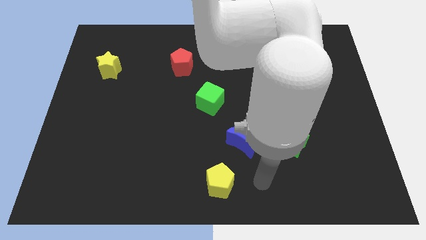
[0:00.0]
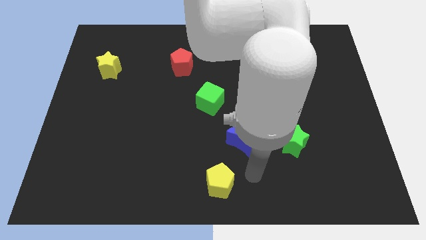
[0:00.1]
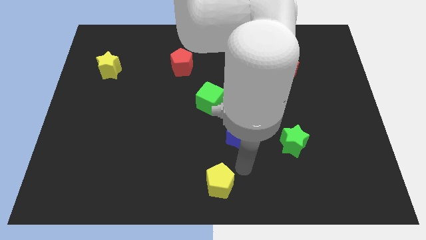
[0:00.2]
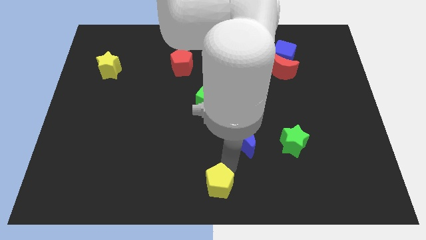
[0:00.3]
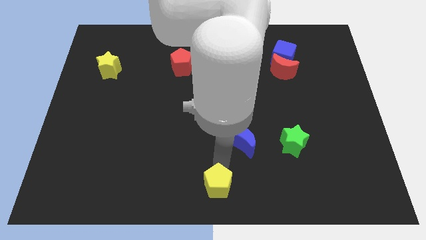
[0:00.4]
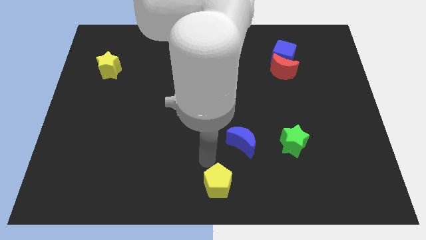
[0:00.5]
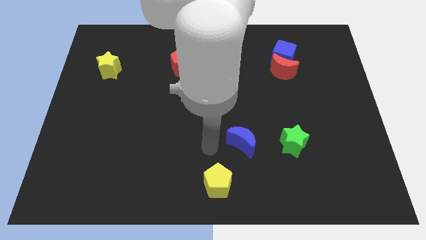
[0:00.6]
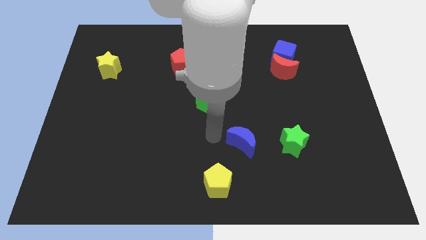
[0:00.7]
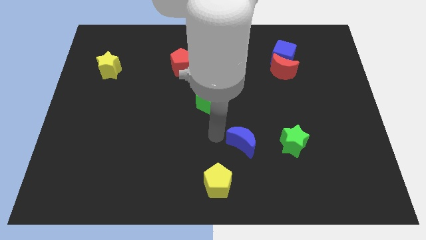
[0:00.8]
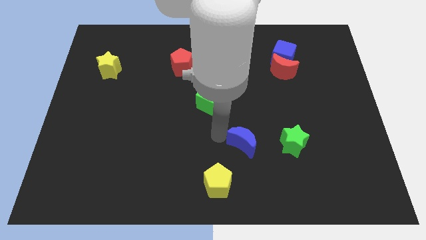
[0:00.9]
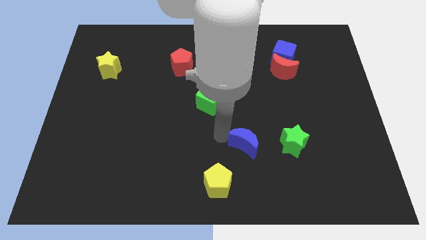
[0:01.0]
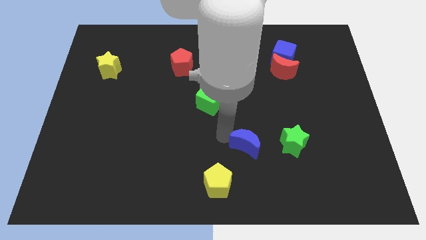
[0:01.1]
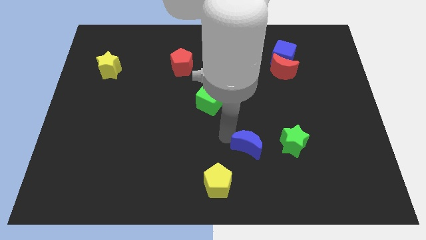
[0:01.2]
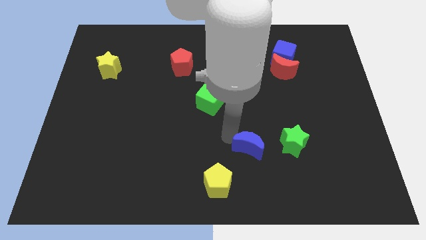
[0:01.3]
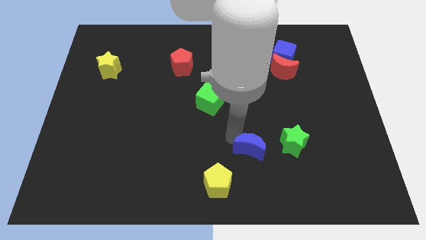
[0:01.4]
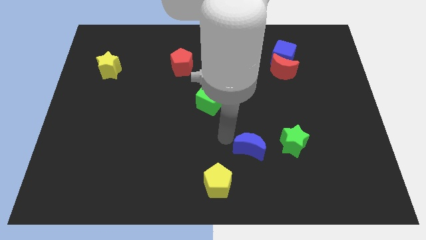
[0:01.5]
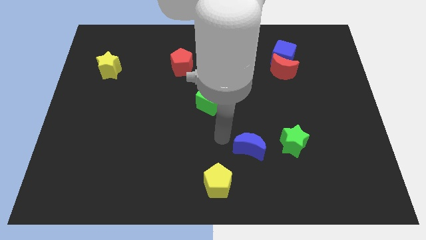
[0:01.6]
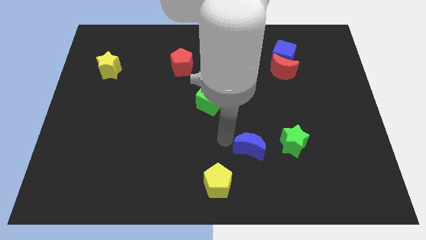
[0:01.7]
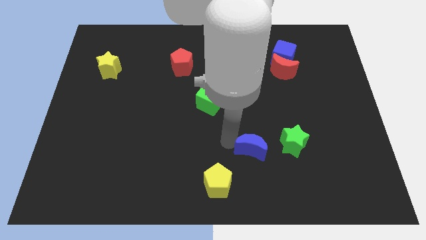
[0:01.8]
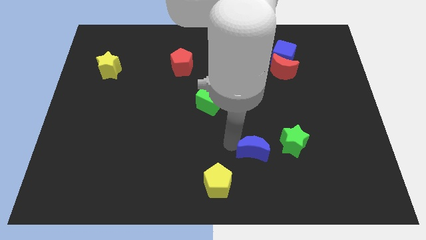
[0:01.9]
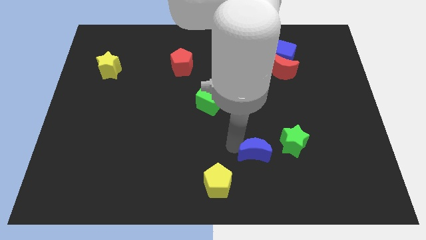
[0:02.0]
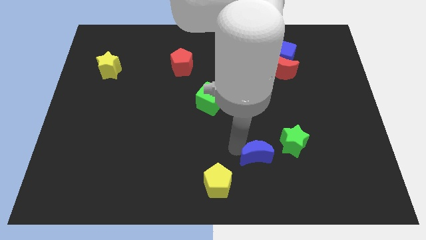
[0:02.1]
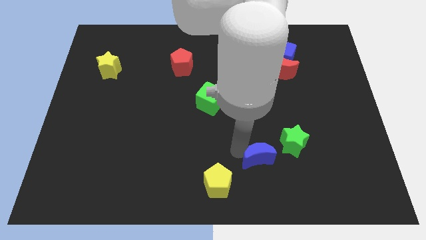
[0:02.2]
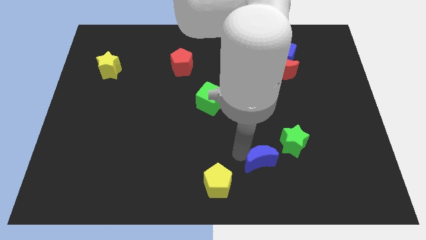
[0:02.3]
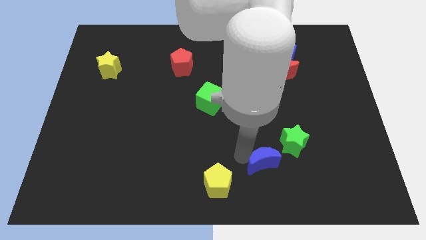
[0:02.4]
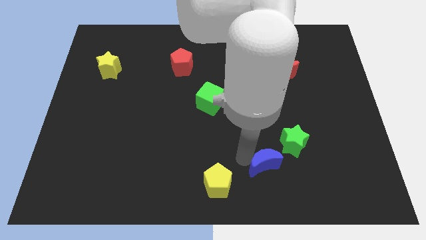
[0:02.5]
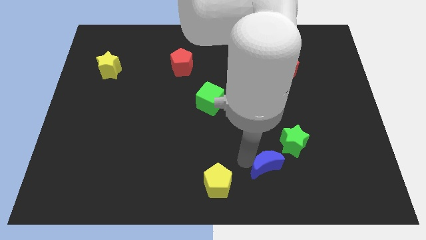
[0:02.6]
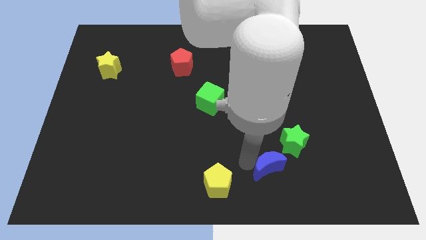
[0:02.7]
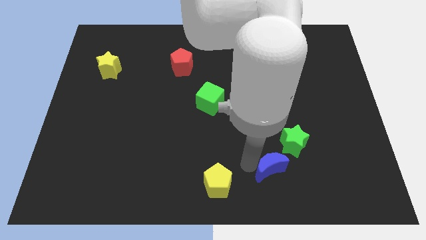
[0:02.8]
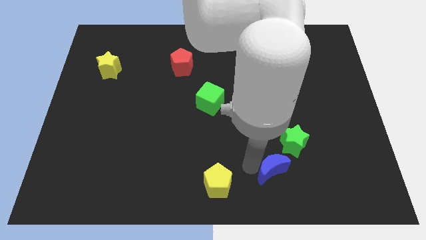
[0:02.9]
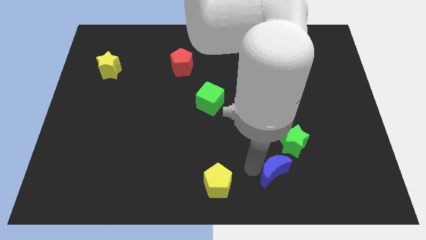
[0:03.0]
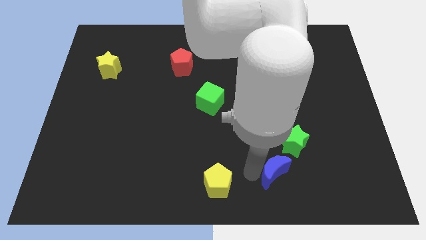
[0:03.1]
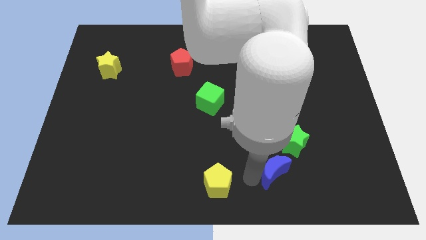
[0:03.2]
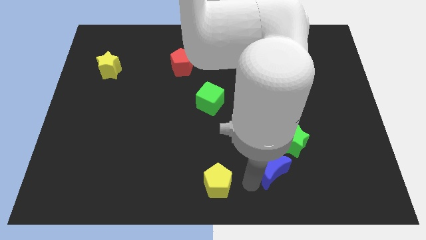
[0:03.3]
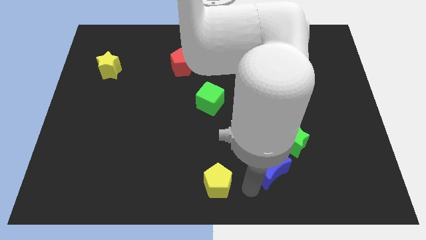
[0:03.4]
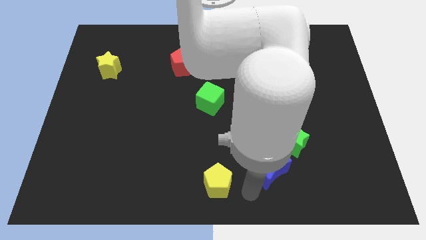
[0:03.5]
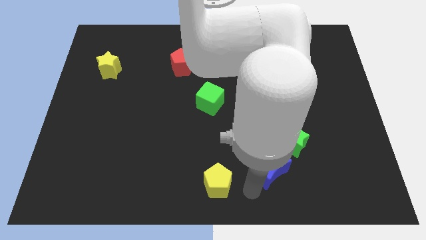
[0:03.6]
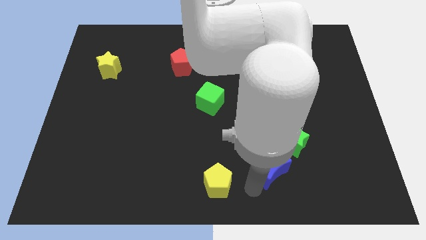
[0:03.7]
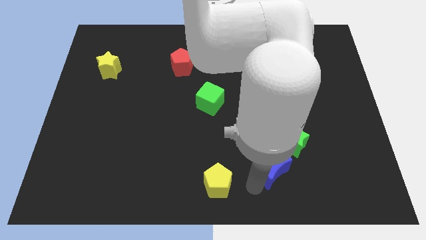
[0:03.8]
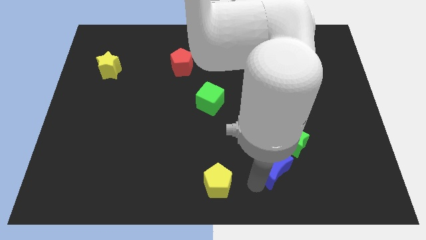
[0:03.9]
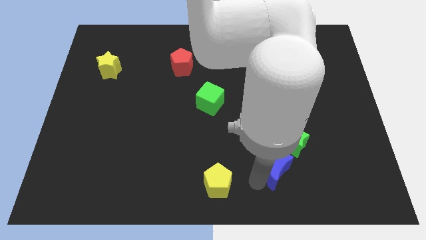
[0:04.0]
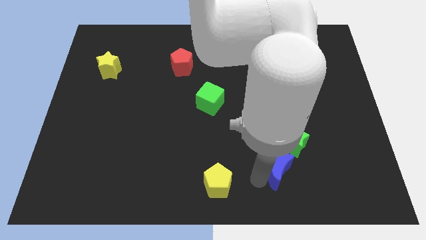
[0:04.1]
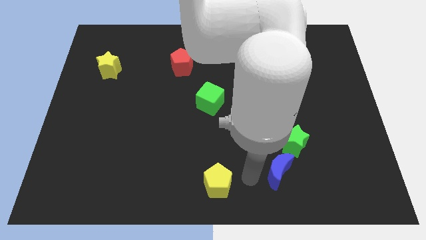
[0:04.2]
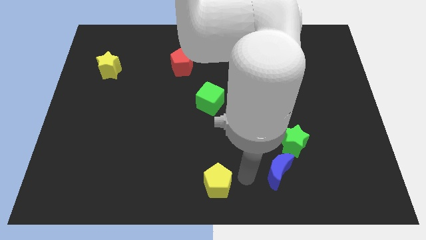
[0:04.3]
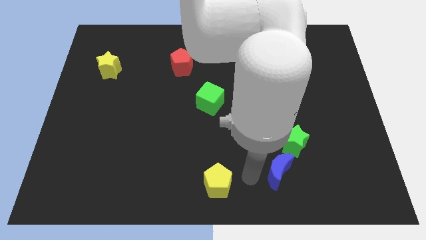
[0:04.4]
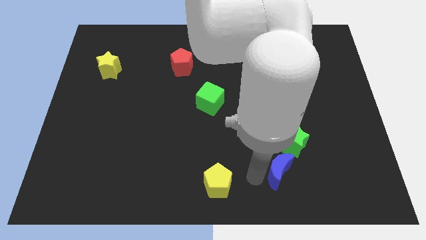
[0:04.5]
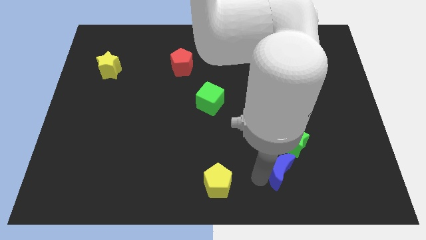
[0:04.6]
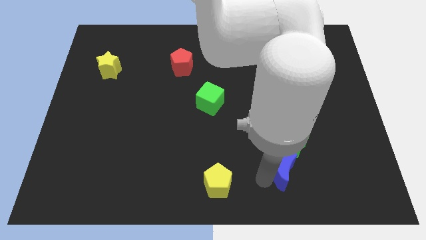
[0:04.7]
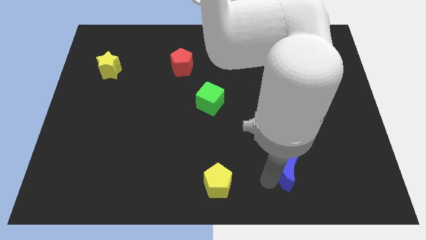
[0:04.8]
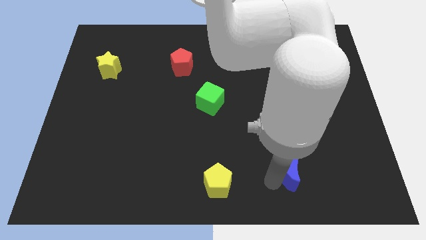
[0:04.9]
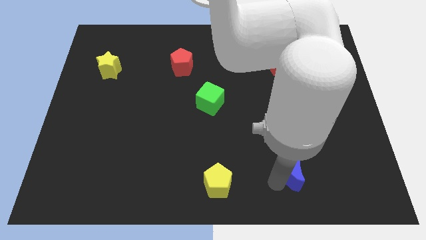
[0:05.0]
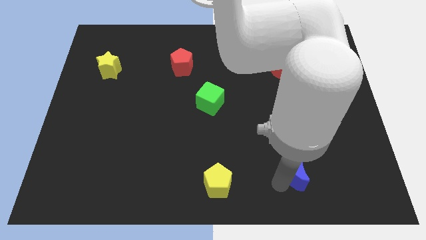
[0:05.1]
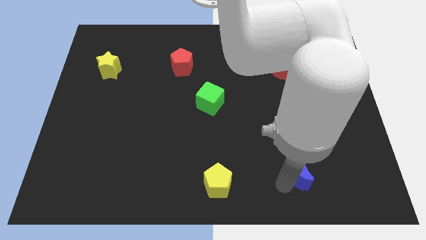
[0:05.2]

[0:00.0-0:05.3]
push the blue moon to the bottom right of the green star

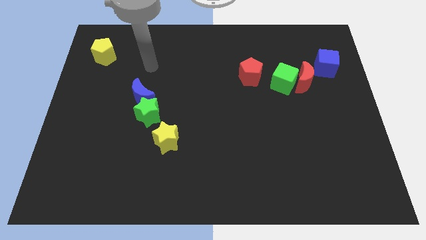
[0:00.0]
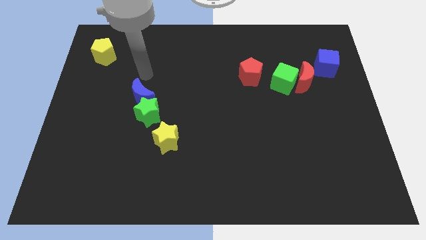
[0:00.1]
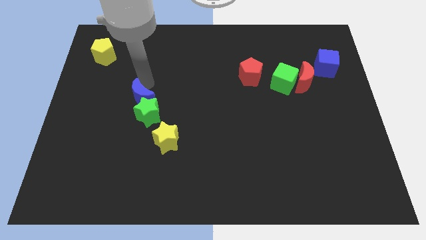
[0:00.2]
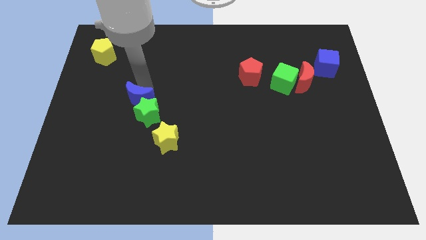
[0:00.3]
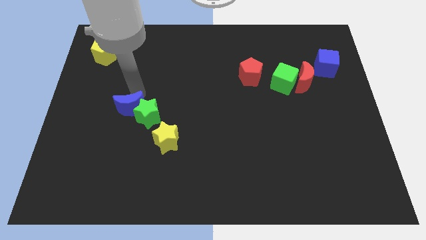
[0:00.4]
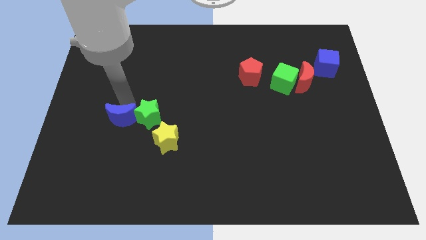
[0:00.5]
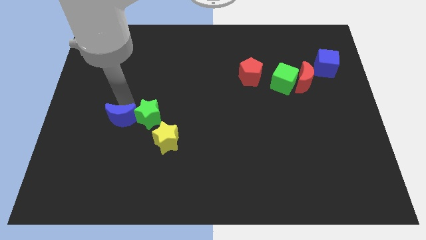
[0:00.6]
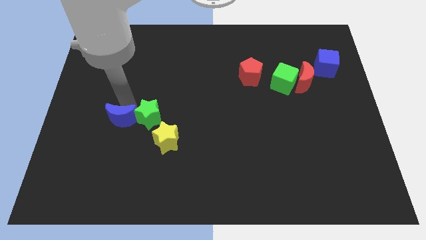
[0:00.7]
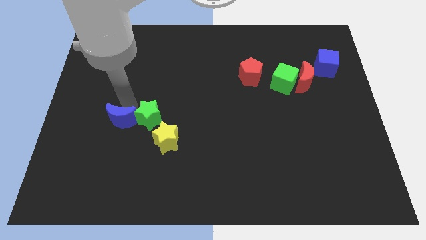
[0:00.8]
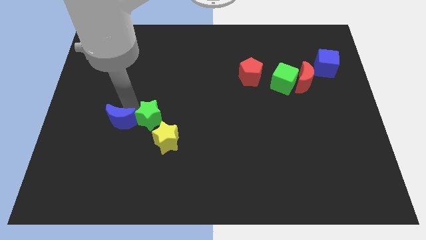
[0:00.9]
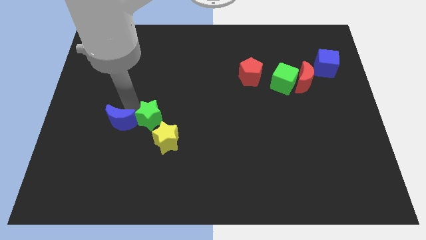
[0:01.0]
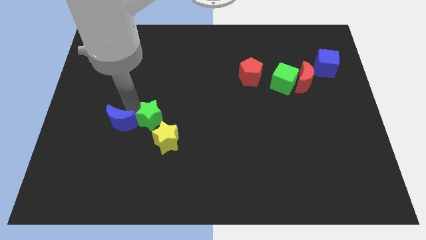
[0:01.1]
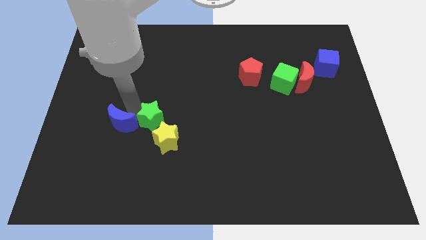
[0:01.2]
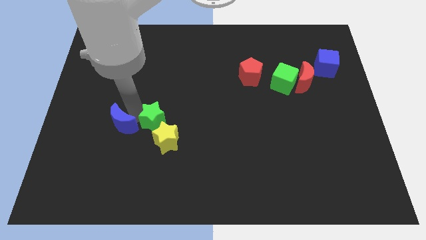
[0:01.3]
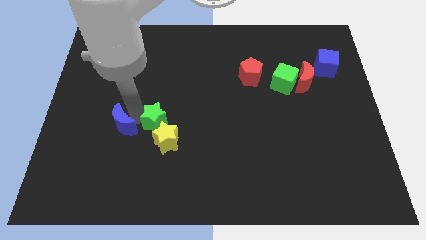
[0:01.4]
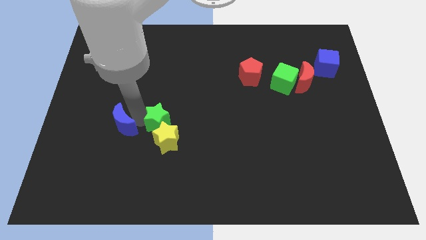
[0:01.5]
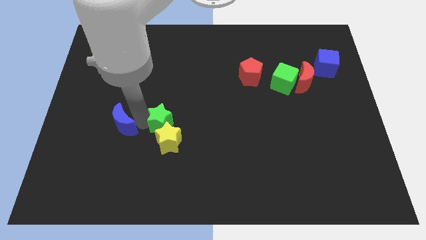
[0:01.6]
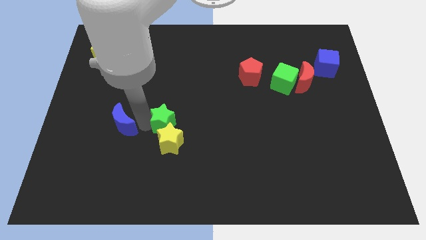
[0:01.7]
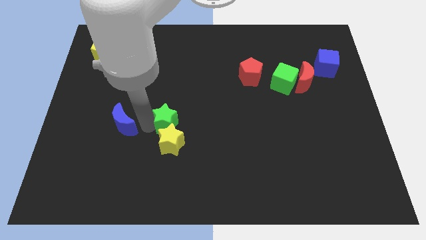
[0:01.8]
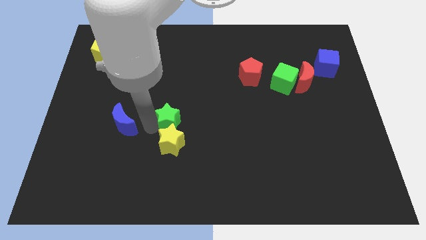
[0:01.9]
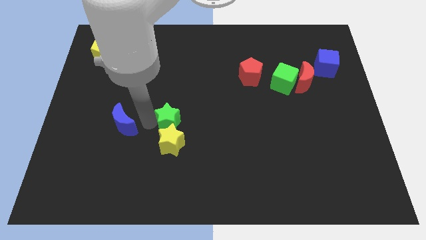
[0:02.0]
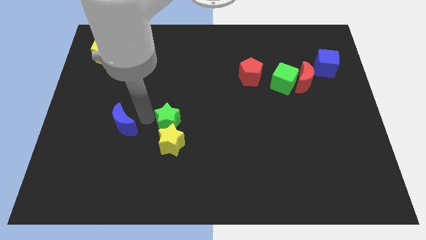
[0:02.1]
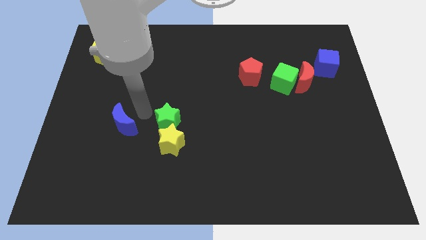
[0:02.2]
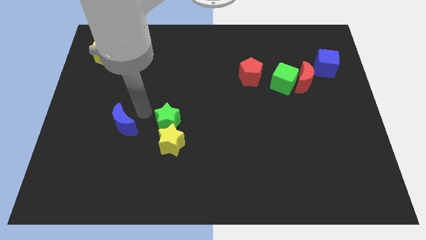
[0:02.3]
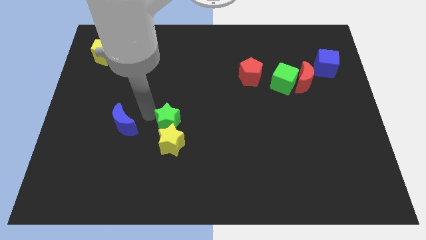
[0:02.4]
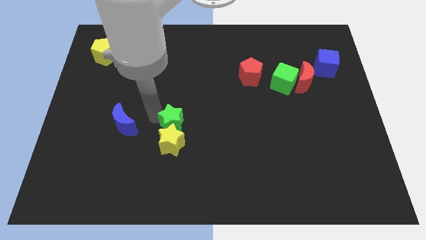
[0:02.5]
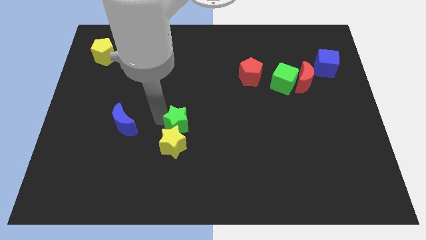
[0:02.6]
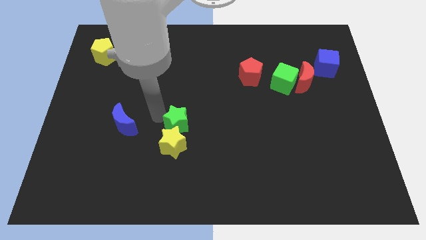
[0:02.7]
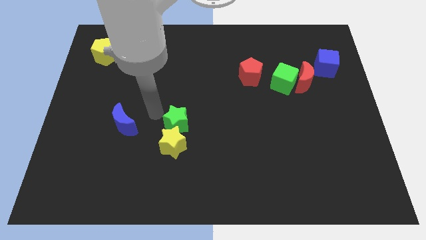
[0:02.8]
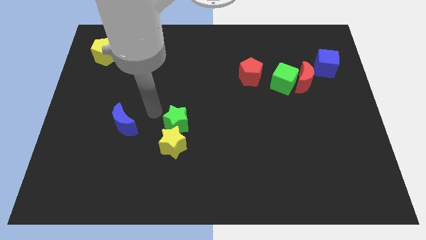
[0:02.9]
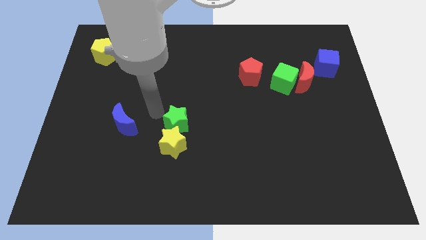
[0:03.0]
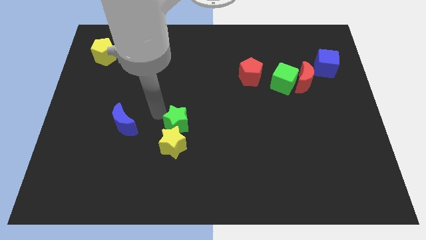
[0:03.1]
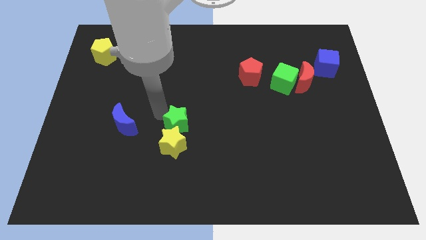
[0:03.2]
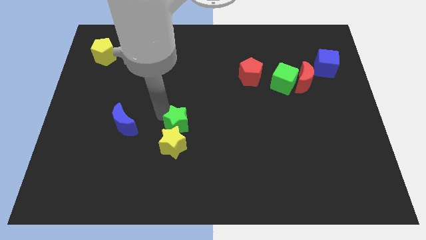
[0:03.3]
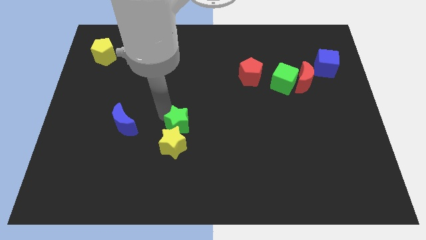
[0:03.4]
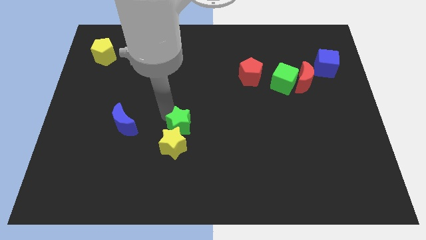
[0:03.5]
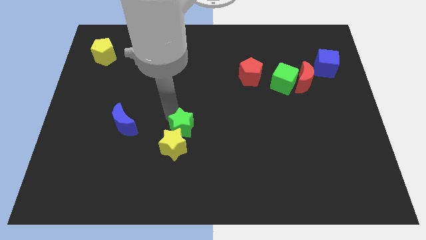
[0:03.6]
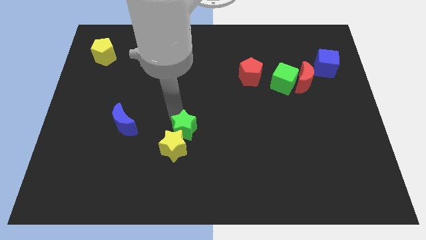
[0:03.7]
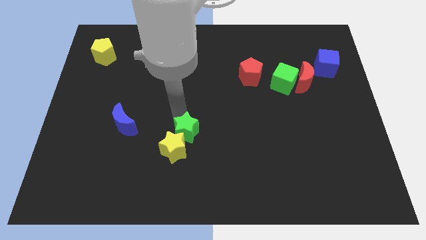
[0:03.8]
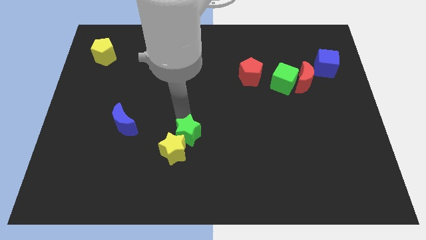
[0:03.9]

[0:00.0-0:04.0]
slide the green star to the right of the yellow star
